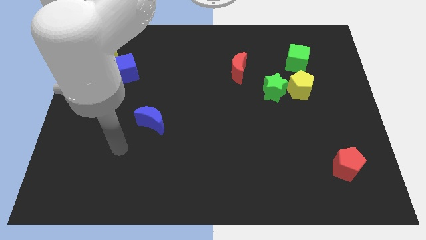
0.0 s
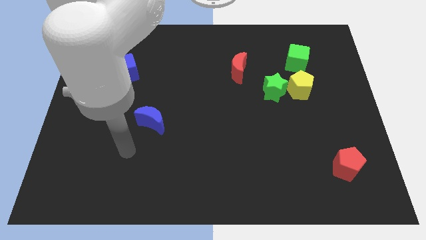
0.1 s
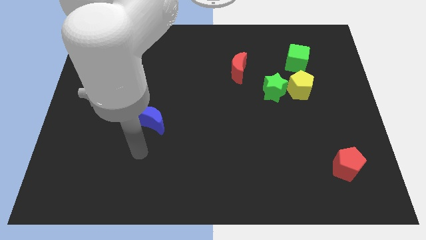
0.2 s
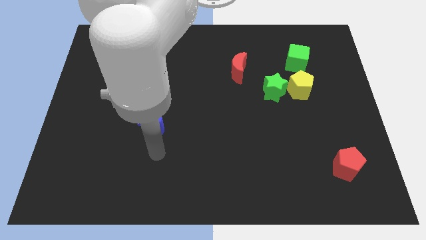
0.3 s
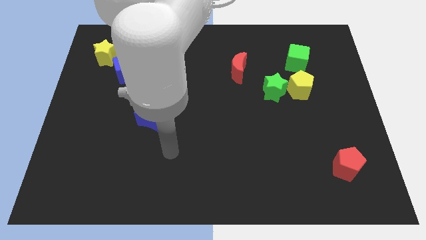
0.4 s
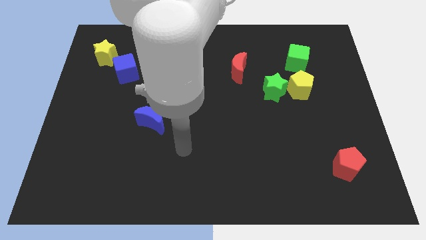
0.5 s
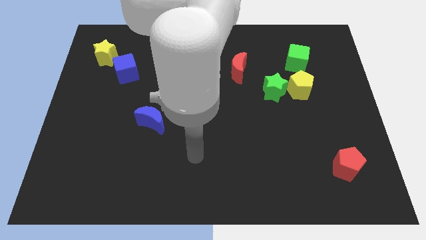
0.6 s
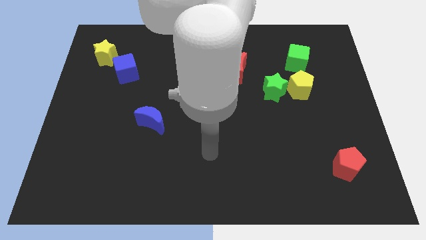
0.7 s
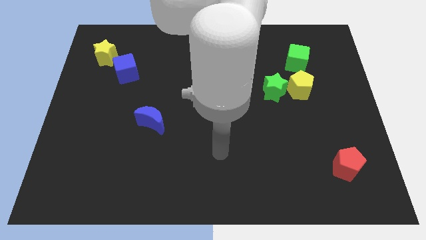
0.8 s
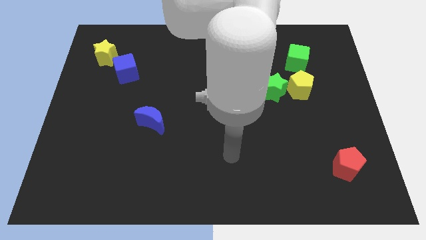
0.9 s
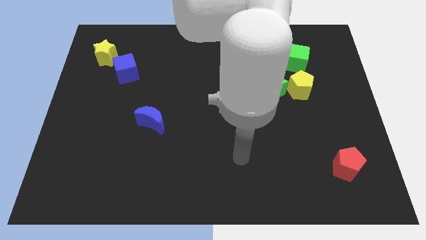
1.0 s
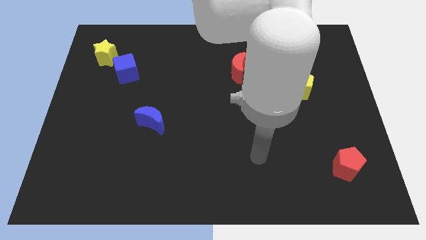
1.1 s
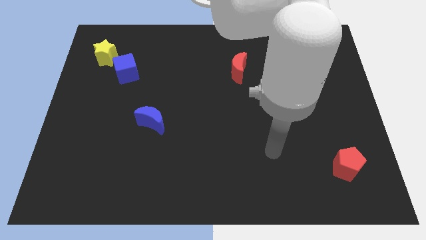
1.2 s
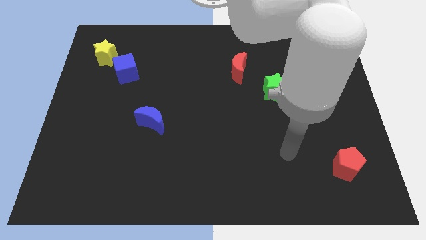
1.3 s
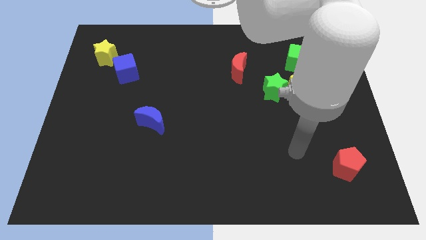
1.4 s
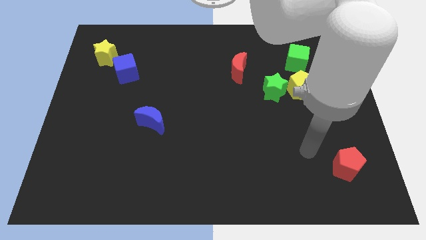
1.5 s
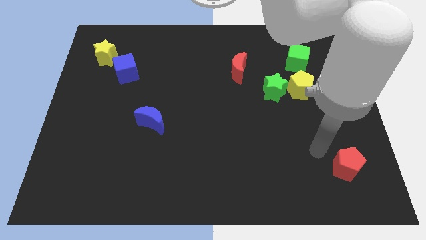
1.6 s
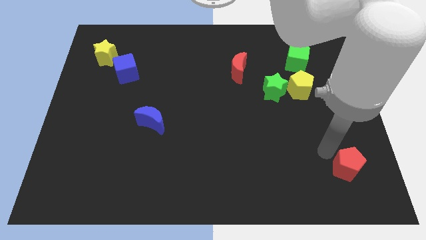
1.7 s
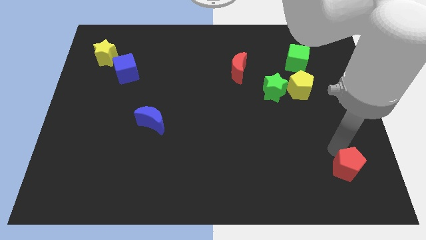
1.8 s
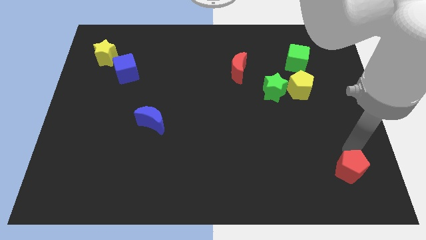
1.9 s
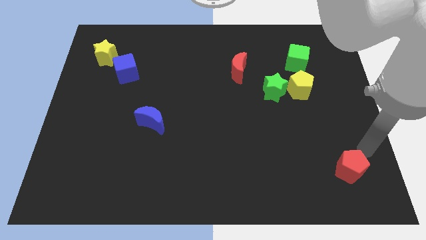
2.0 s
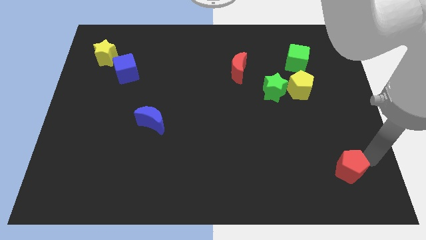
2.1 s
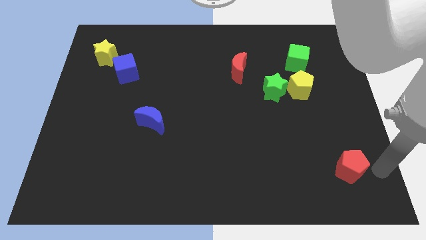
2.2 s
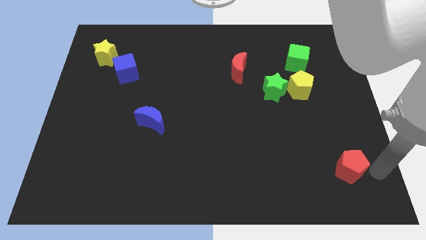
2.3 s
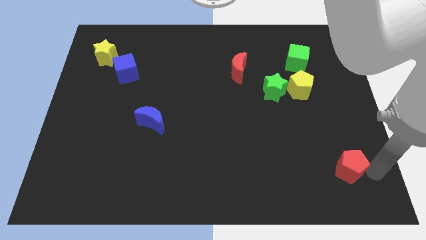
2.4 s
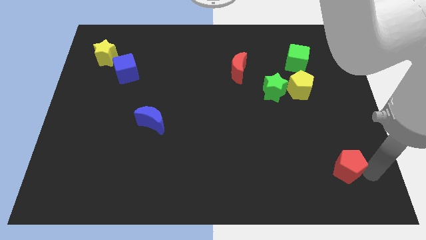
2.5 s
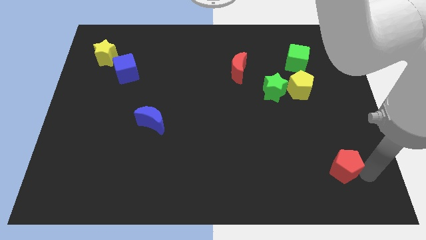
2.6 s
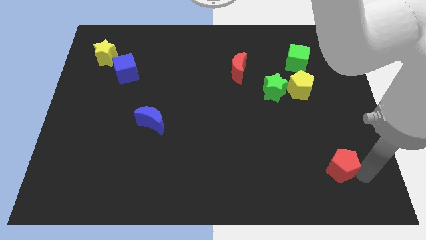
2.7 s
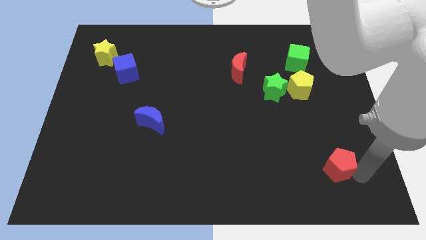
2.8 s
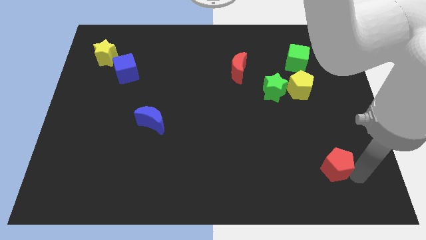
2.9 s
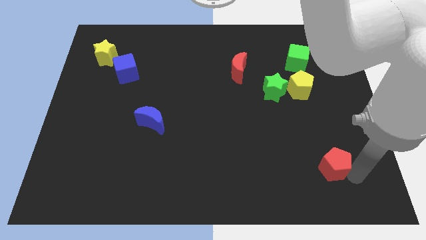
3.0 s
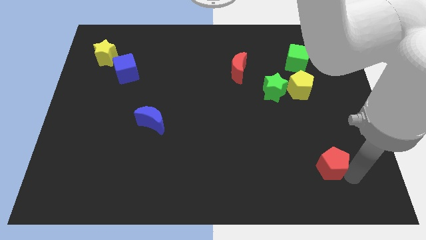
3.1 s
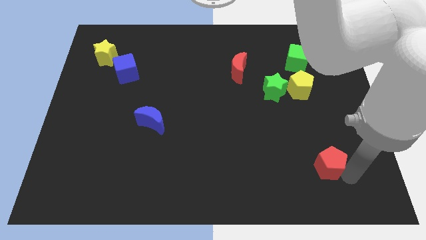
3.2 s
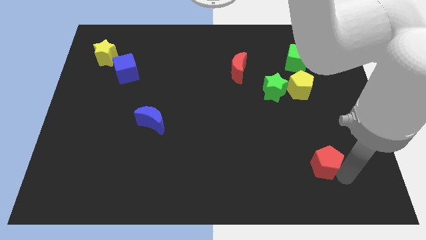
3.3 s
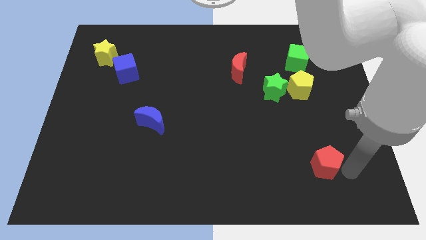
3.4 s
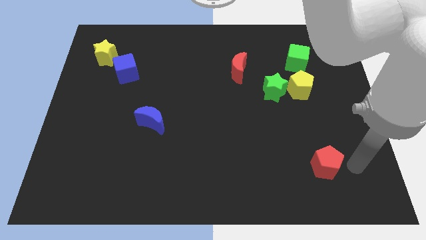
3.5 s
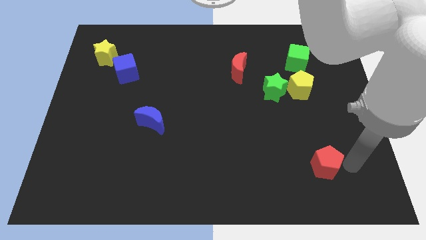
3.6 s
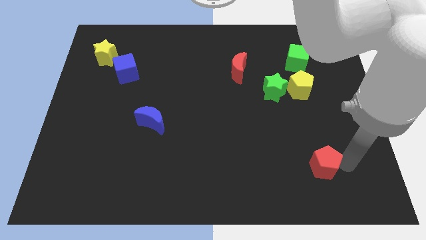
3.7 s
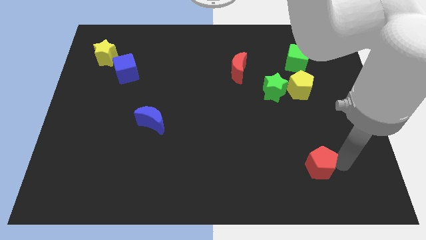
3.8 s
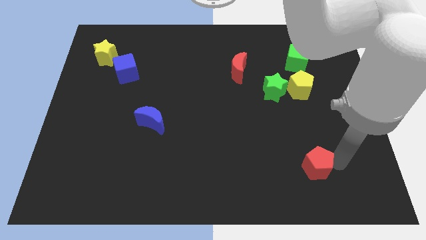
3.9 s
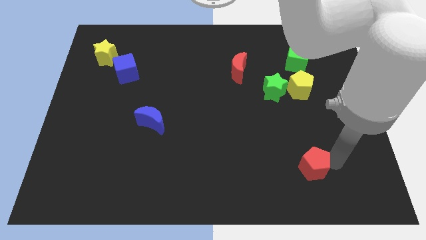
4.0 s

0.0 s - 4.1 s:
push the red pentagon somewhat left

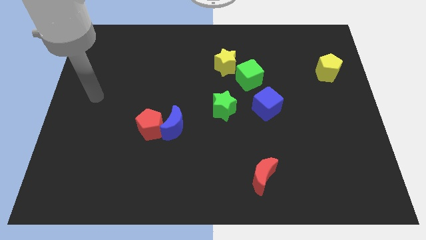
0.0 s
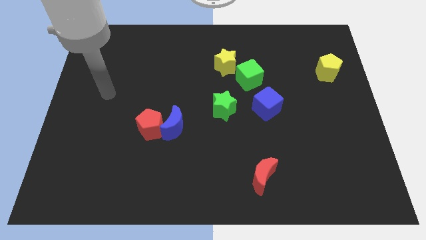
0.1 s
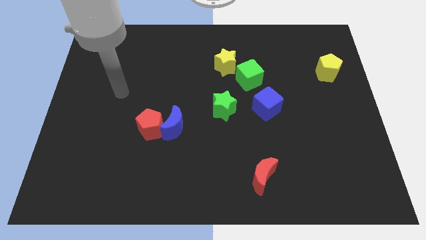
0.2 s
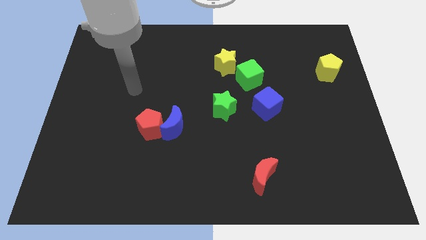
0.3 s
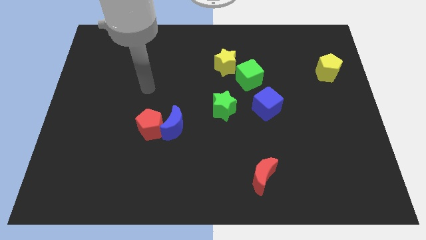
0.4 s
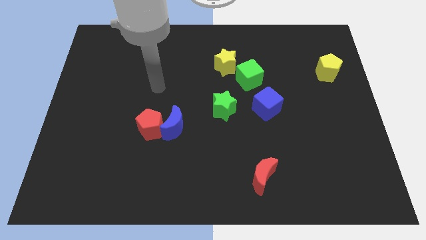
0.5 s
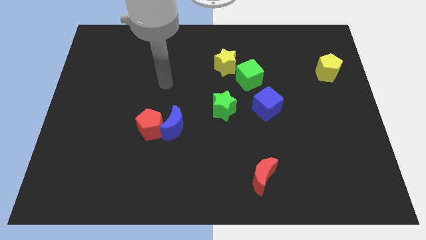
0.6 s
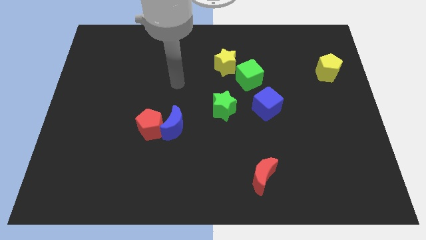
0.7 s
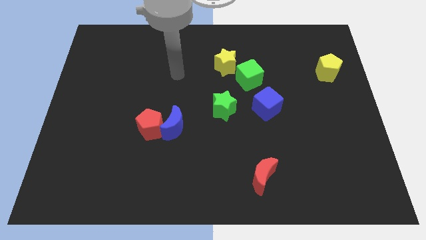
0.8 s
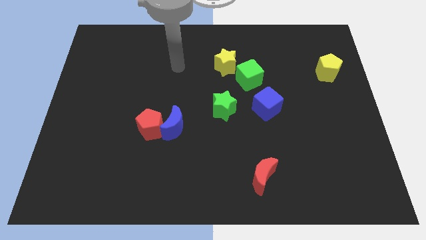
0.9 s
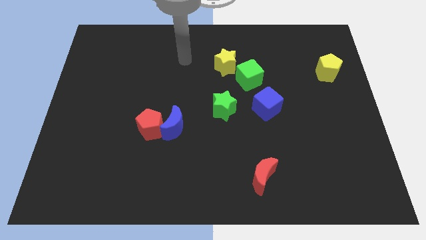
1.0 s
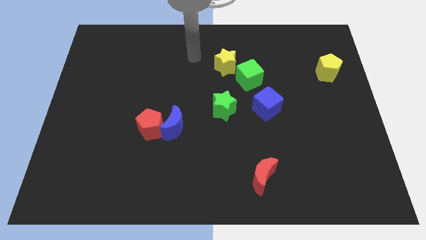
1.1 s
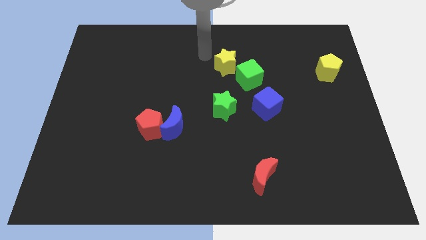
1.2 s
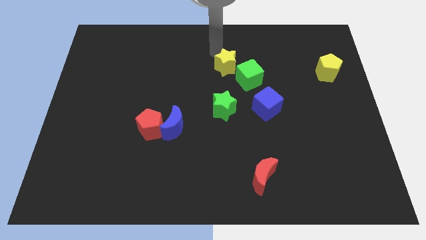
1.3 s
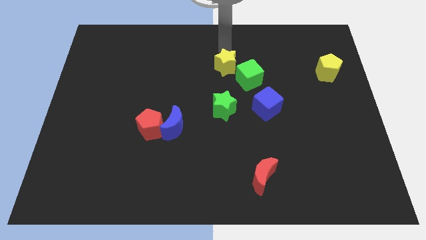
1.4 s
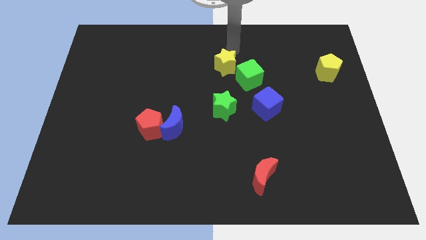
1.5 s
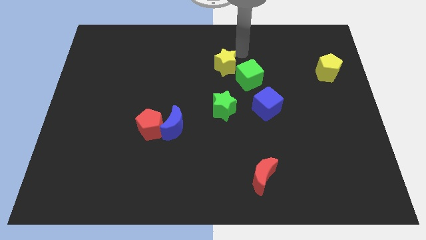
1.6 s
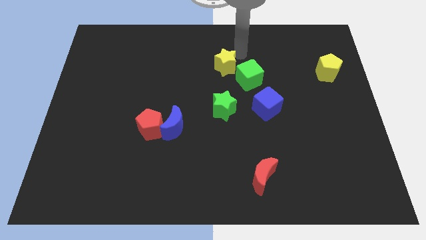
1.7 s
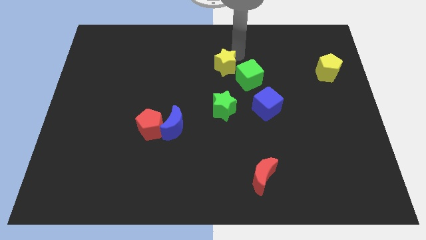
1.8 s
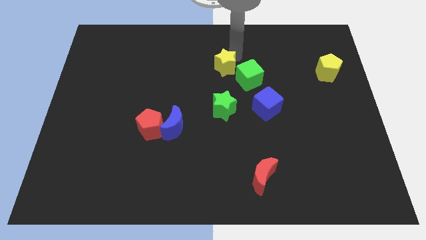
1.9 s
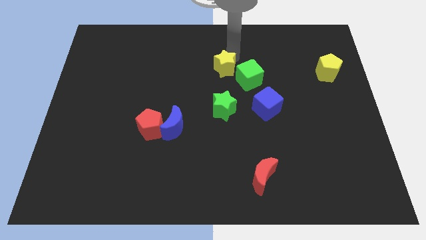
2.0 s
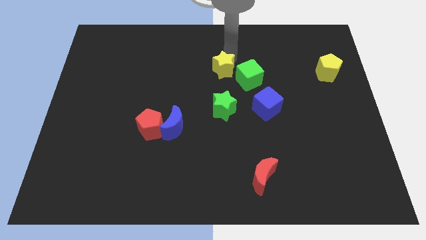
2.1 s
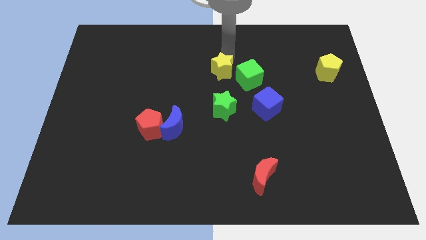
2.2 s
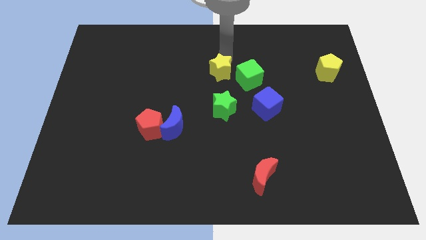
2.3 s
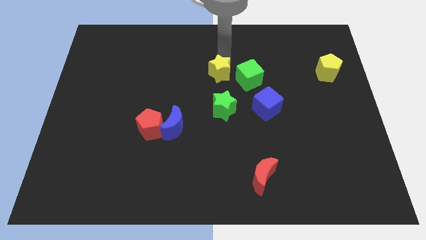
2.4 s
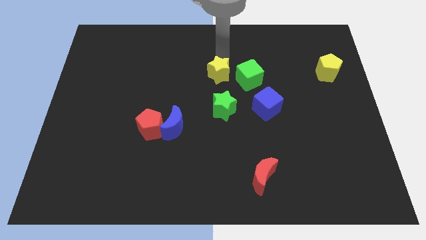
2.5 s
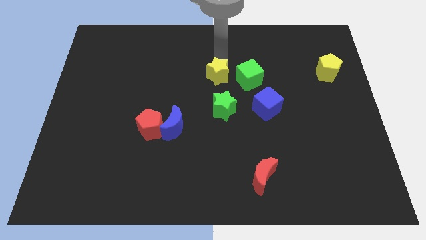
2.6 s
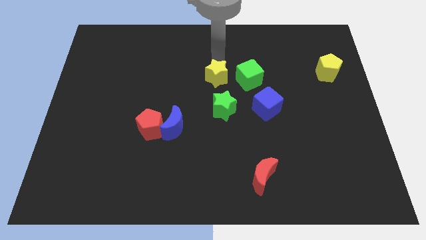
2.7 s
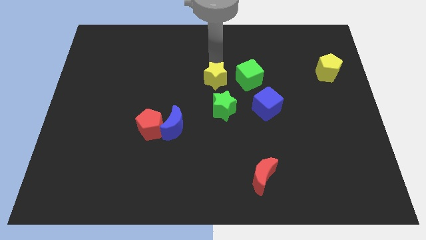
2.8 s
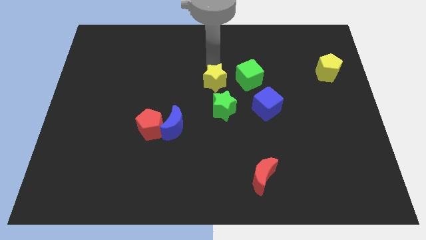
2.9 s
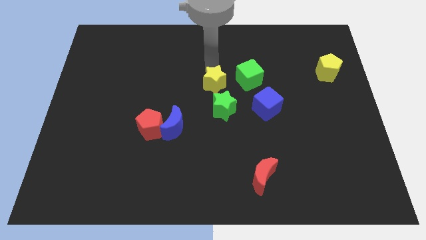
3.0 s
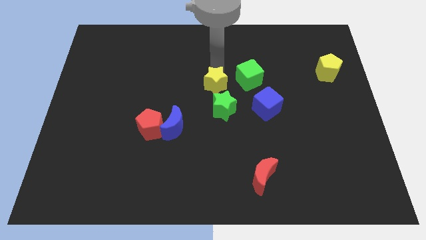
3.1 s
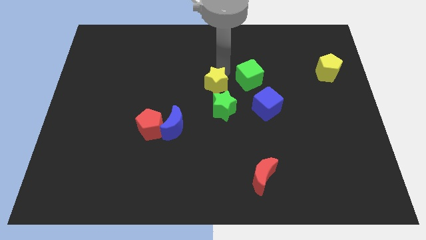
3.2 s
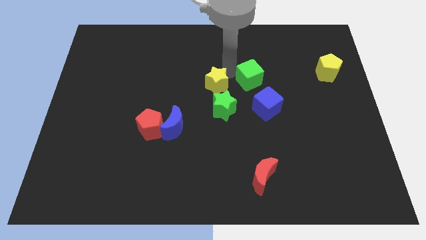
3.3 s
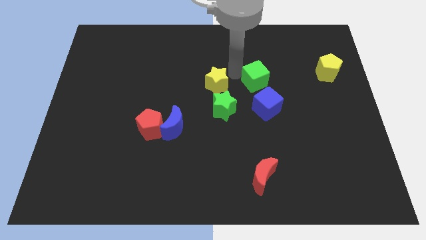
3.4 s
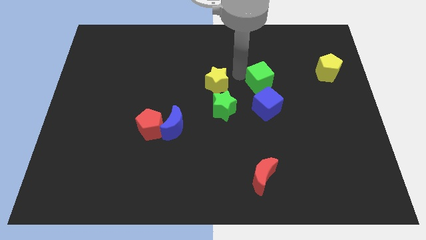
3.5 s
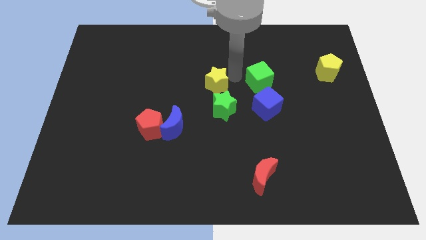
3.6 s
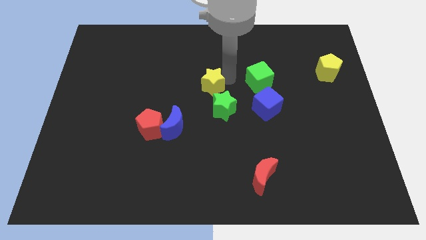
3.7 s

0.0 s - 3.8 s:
slide the yellow star somewhat down and then to the left

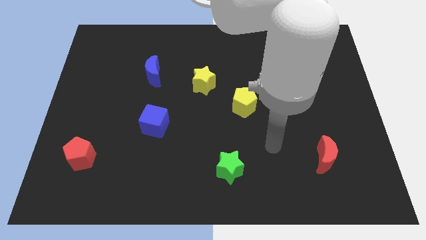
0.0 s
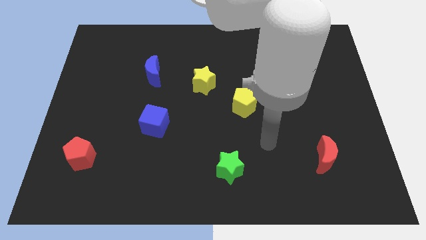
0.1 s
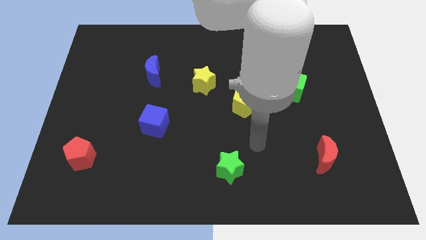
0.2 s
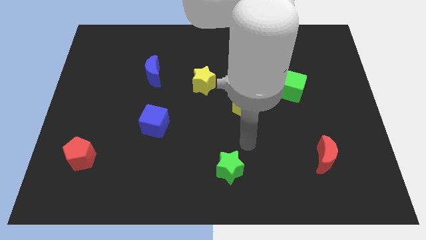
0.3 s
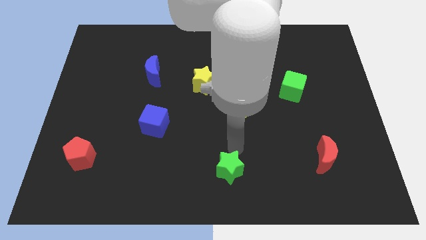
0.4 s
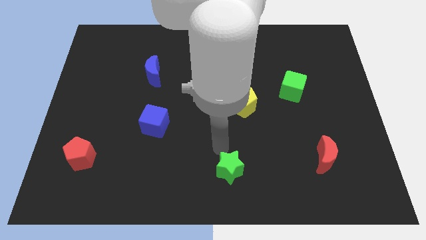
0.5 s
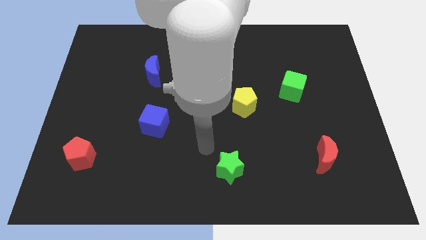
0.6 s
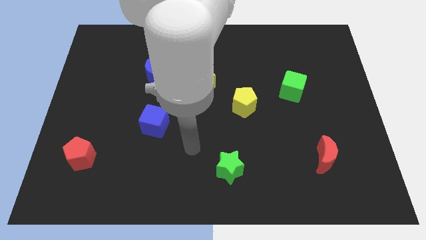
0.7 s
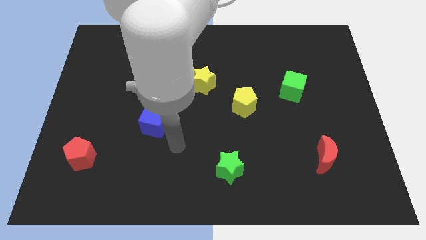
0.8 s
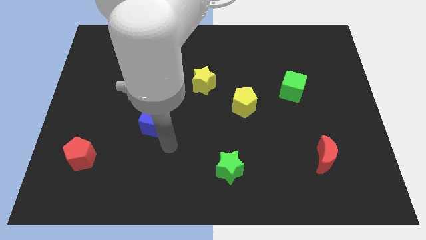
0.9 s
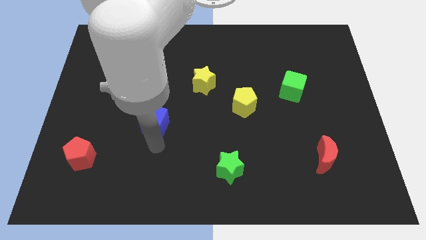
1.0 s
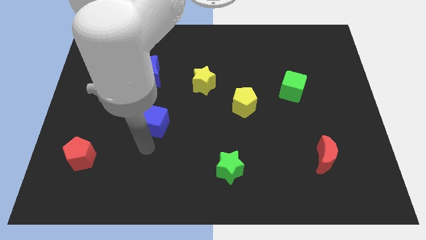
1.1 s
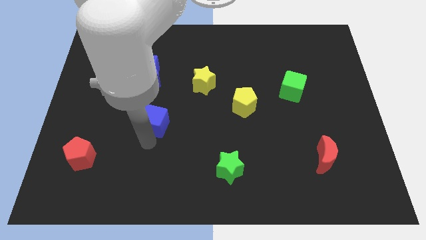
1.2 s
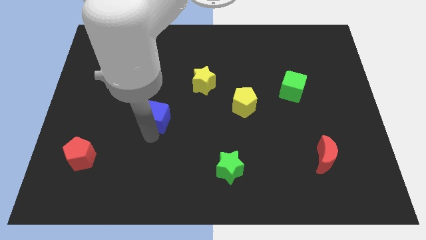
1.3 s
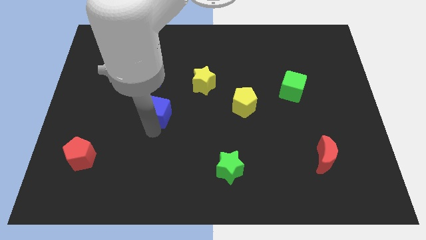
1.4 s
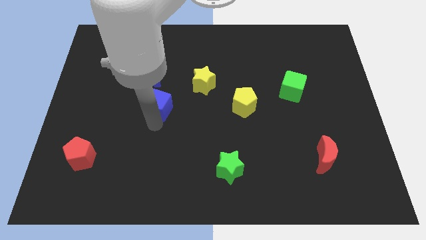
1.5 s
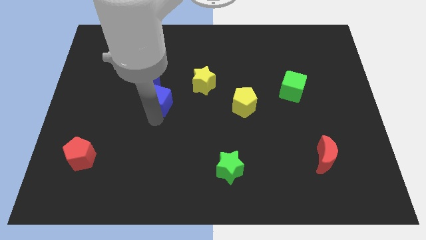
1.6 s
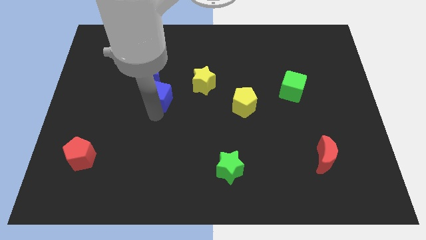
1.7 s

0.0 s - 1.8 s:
slightly slide the blue cube upwards
